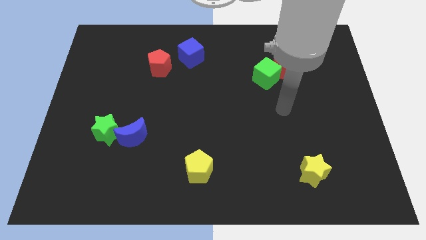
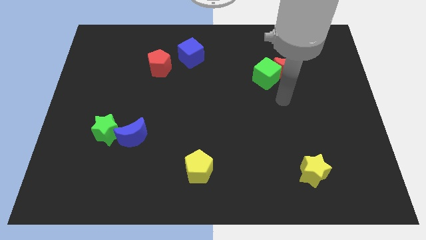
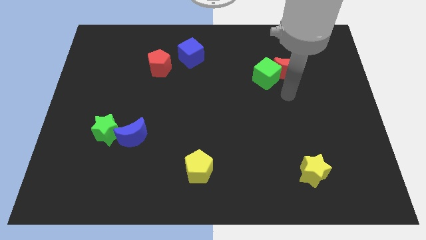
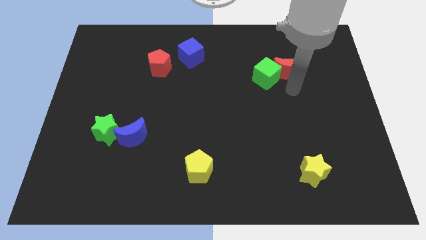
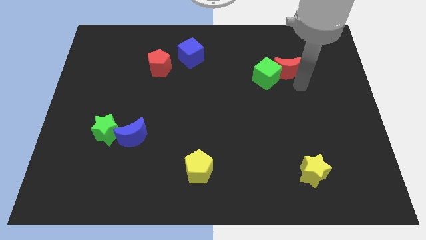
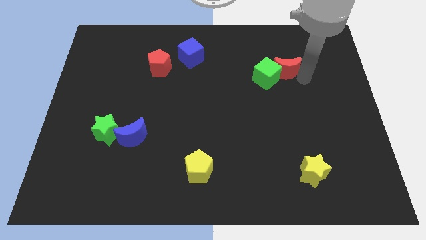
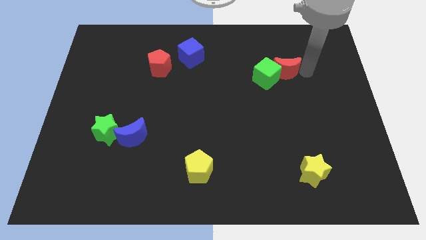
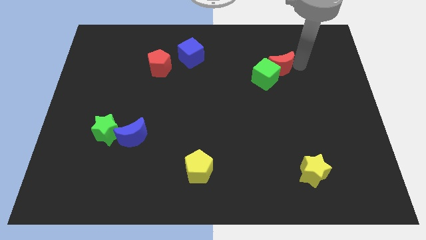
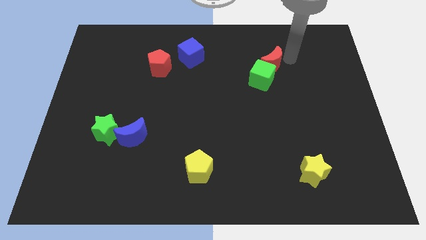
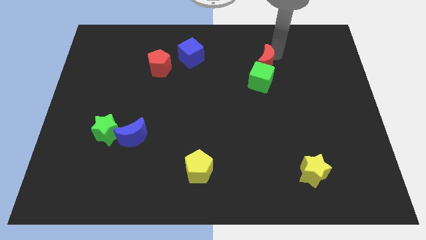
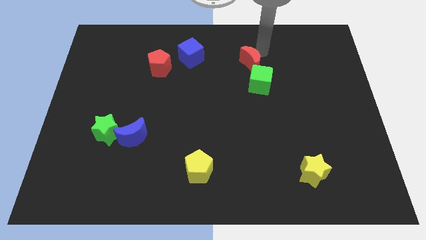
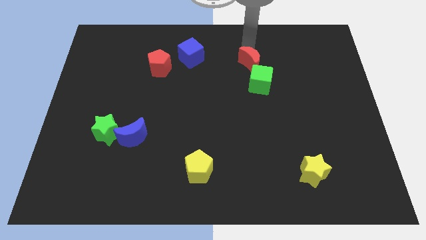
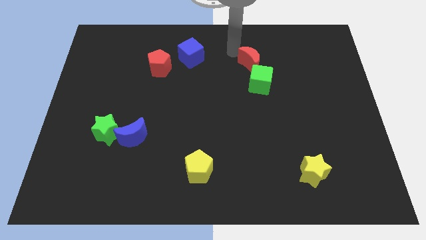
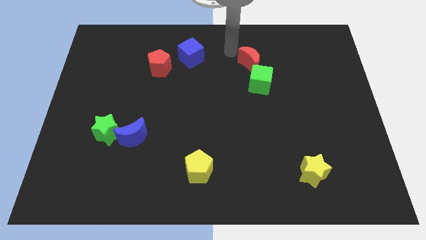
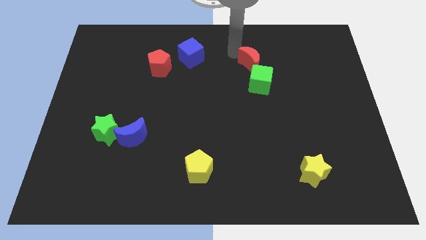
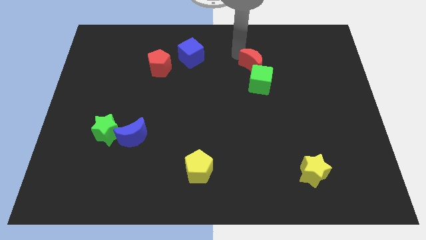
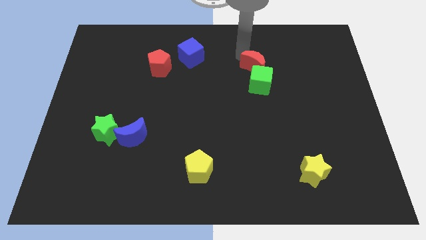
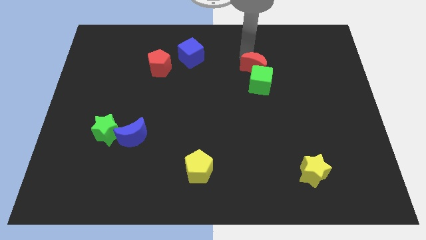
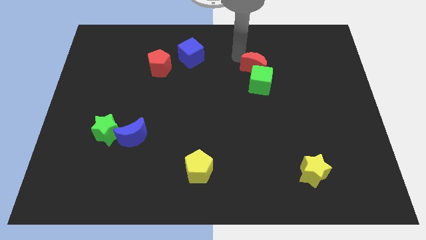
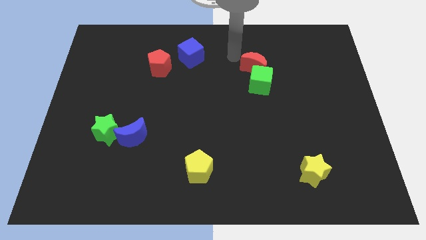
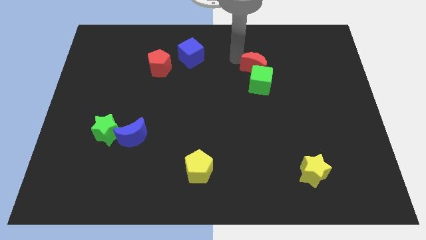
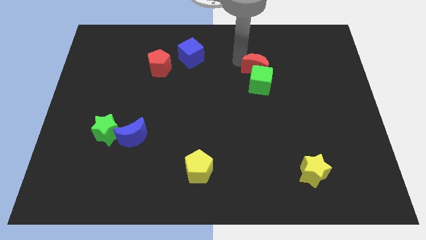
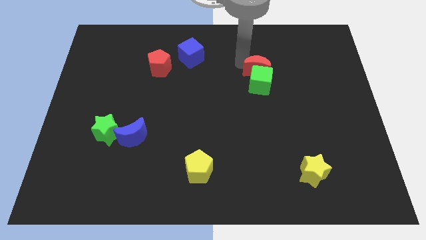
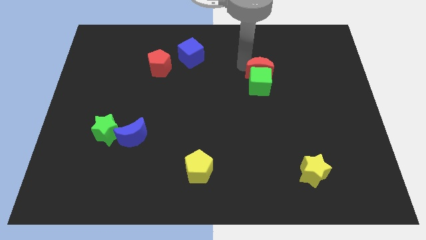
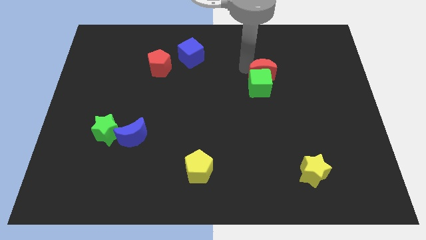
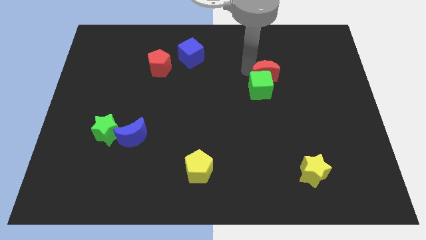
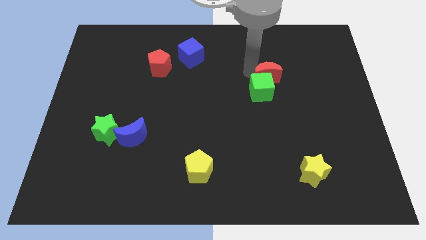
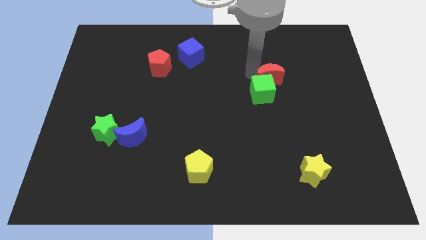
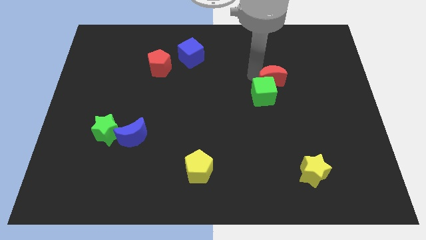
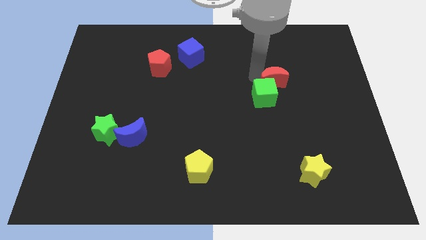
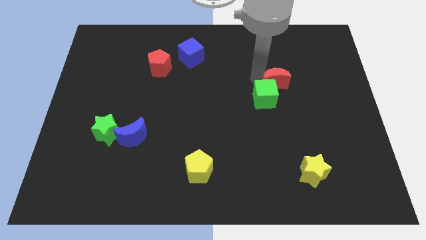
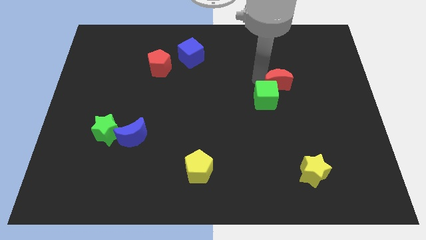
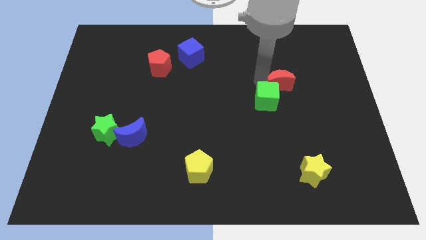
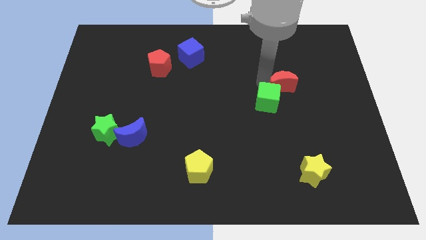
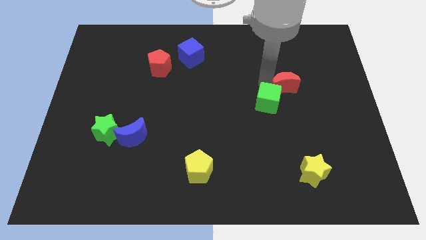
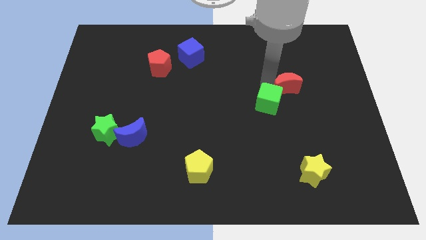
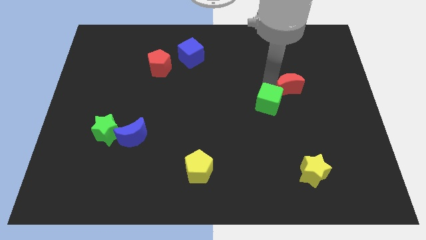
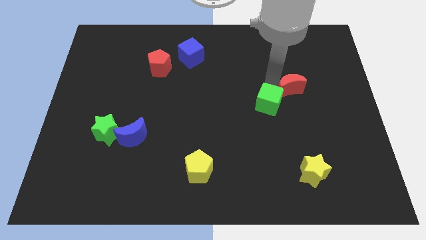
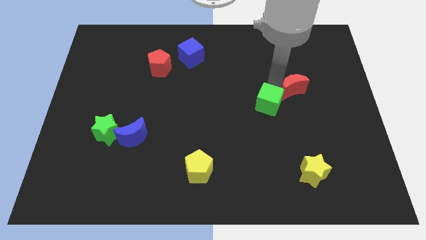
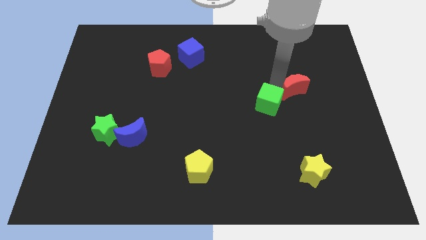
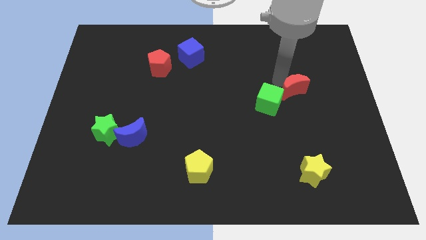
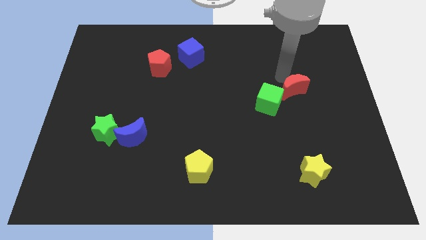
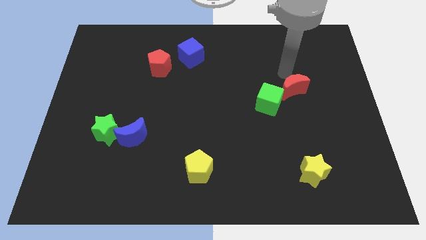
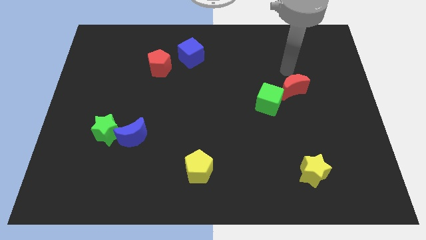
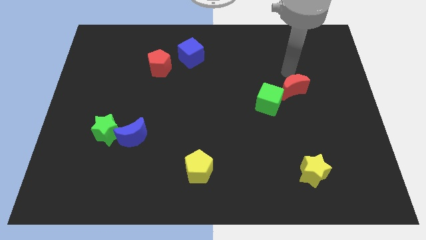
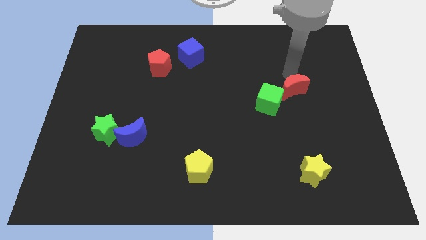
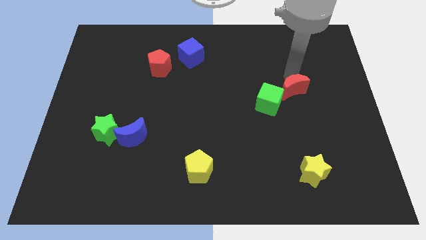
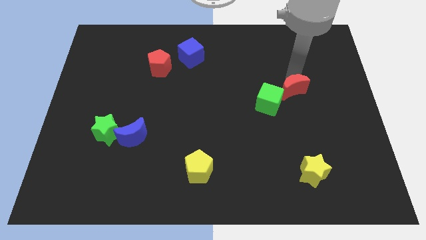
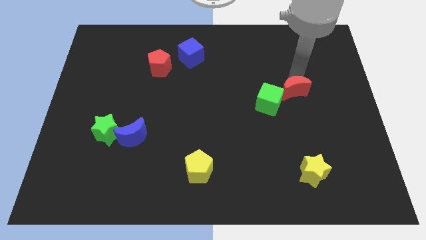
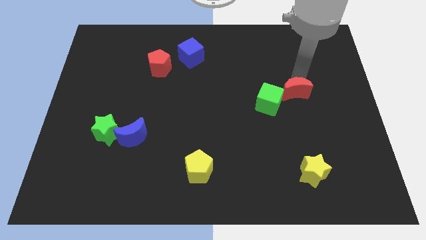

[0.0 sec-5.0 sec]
slightly slide the red moon down

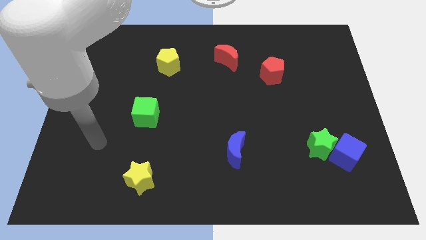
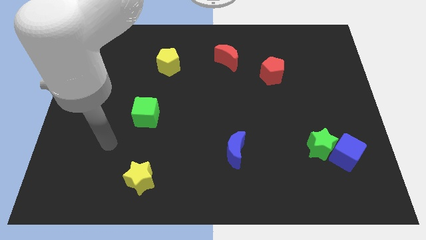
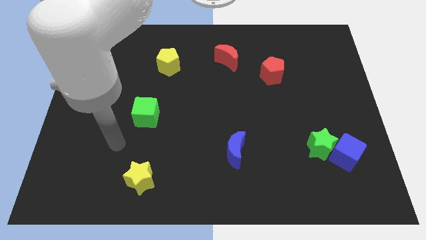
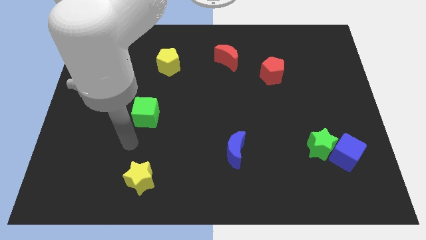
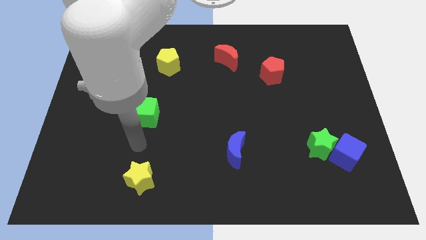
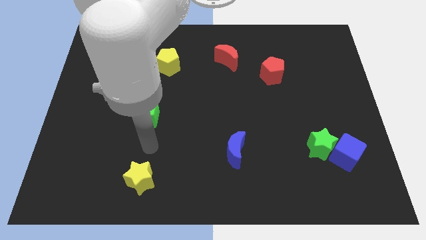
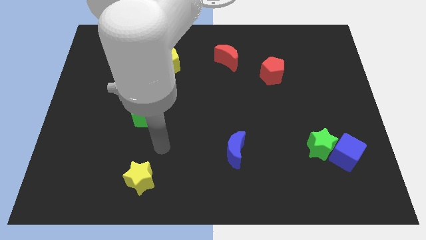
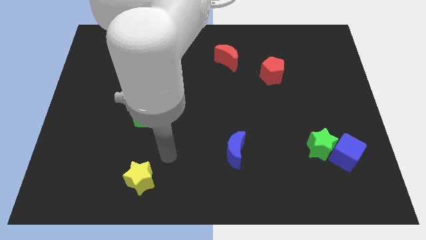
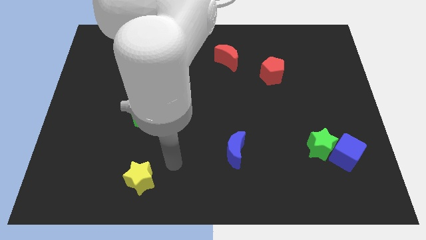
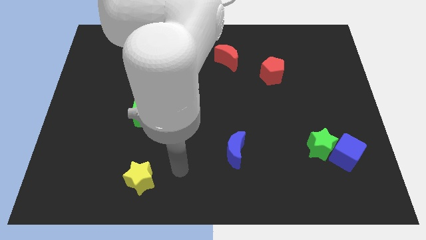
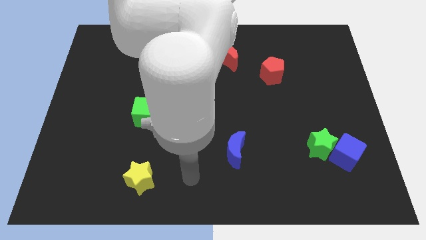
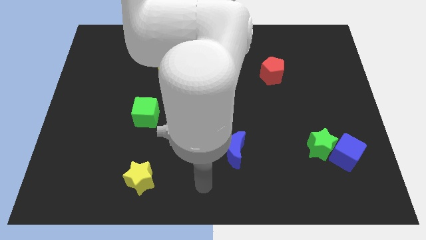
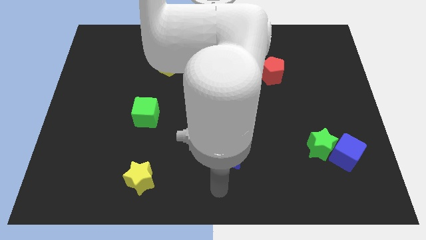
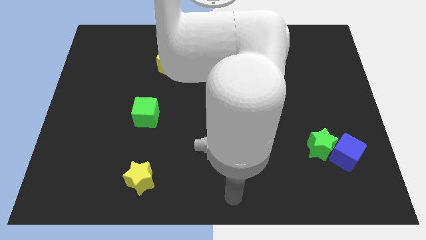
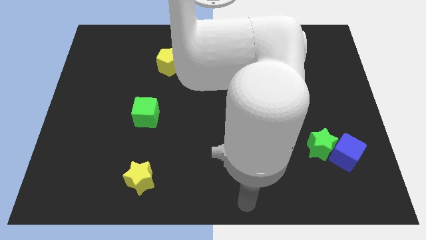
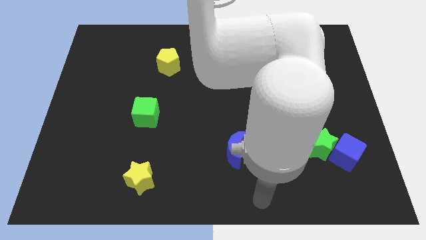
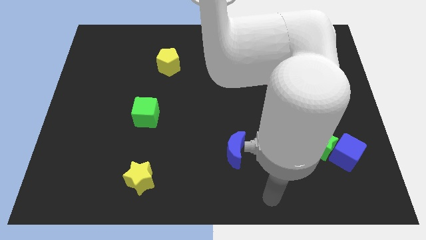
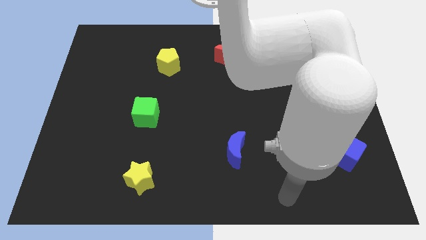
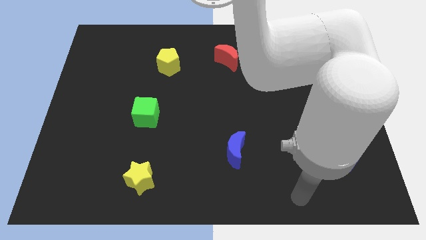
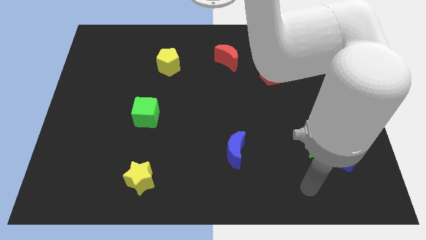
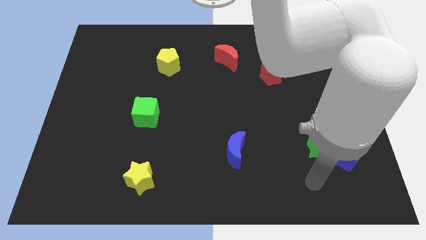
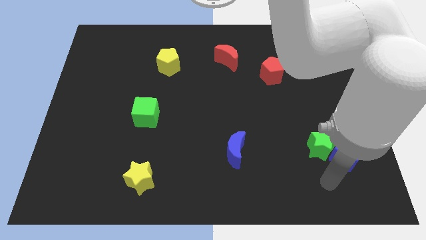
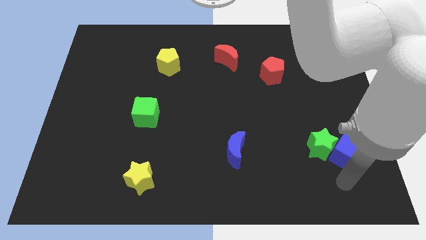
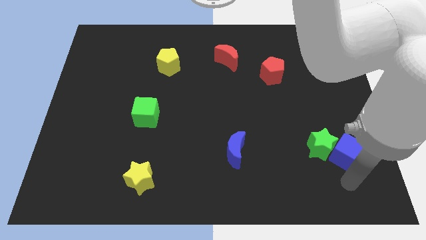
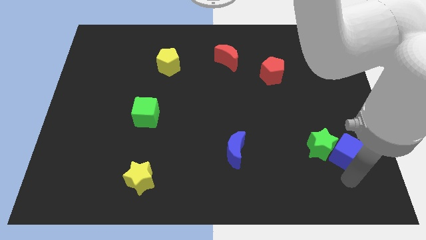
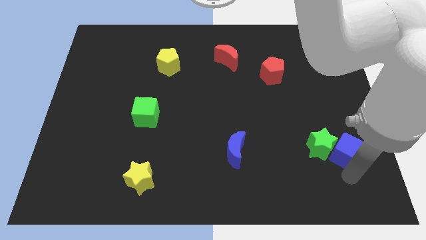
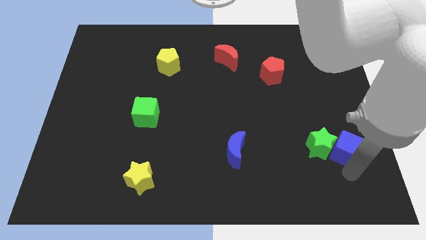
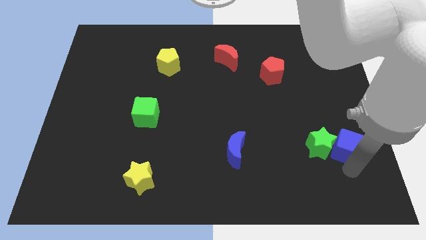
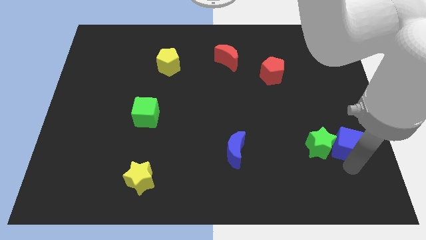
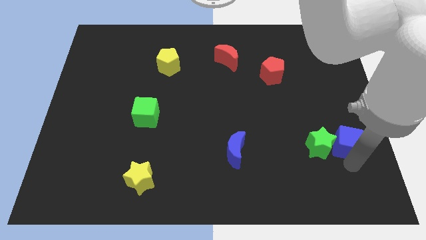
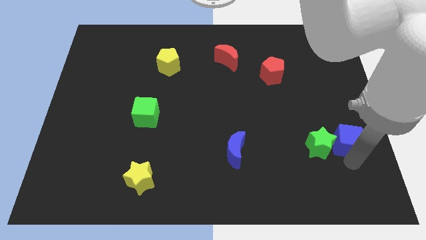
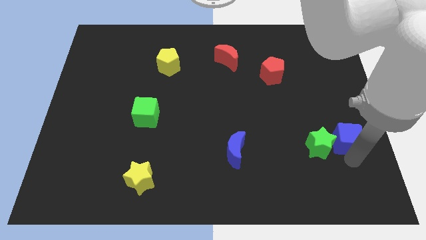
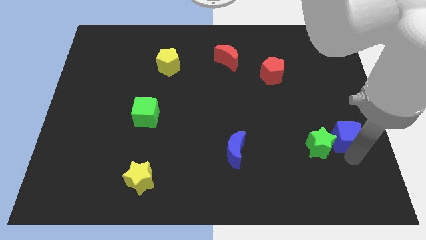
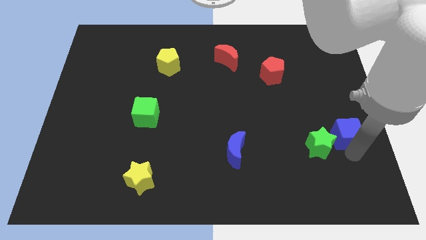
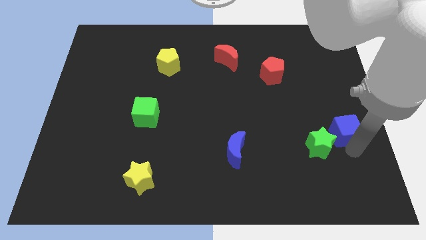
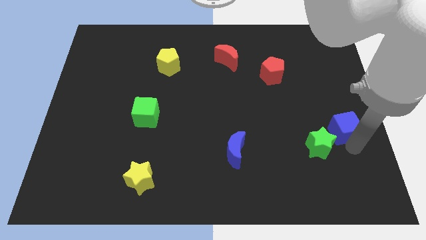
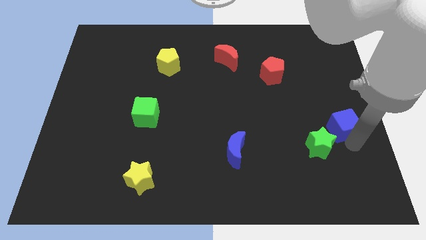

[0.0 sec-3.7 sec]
slide the blue cube somewhat up
